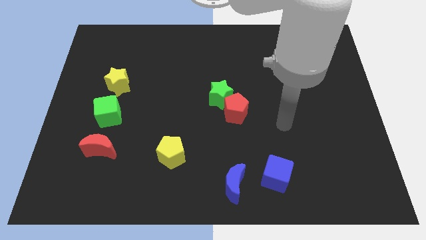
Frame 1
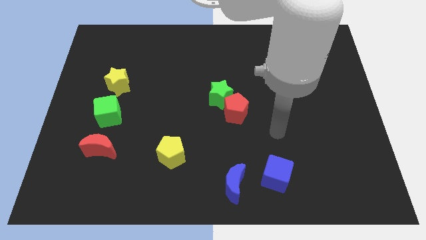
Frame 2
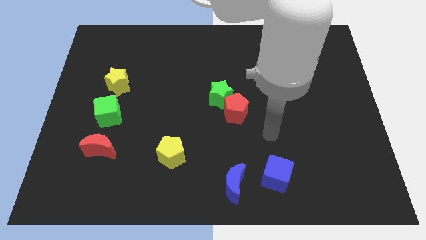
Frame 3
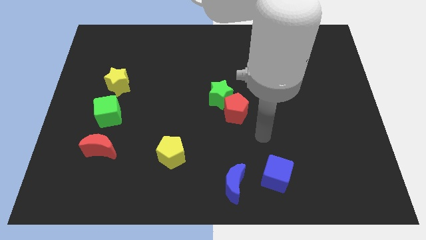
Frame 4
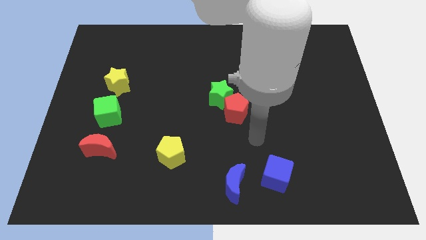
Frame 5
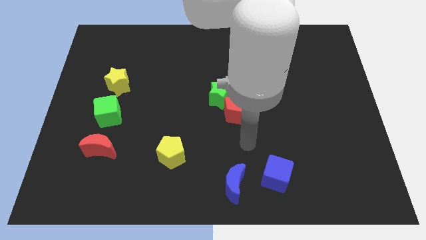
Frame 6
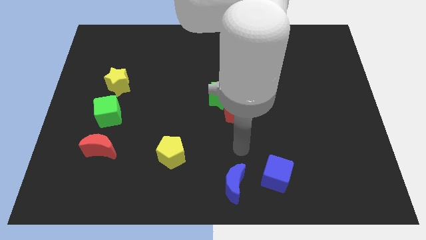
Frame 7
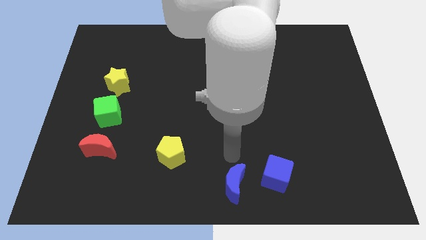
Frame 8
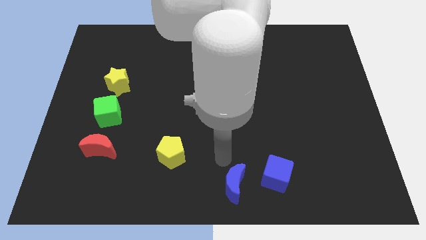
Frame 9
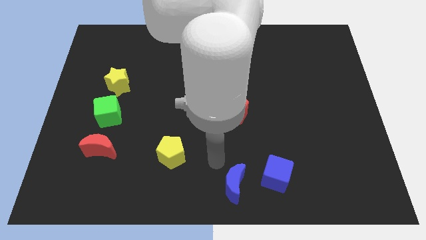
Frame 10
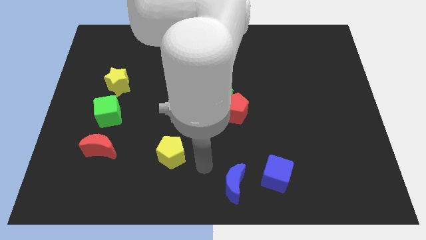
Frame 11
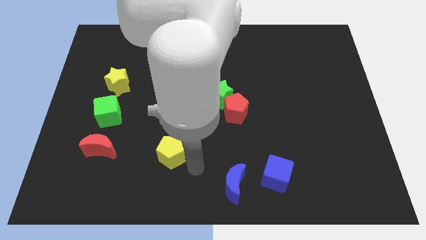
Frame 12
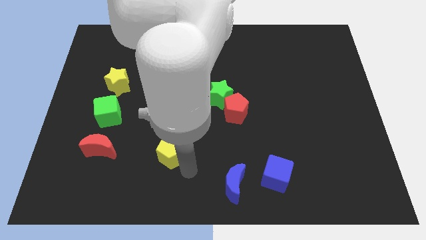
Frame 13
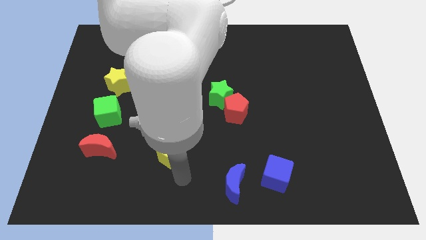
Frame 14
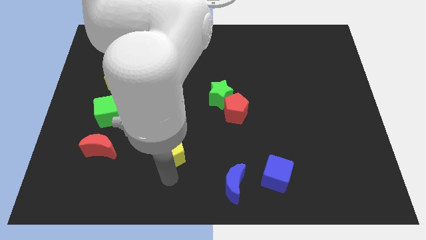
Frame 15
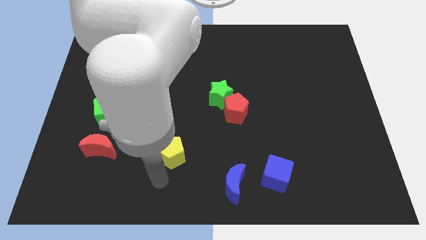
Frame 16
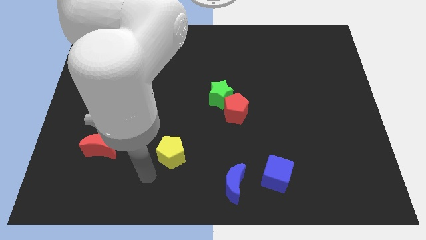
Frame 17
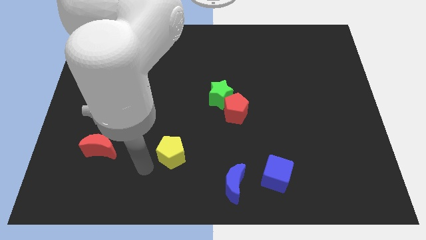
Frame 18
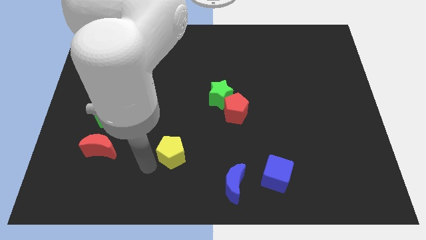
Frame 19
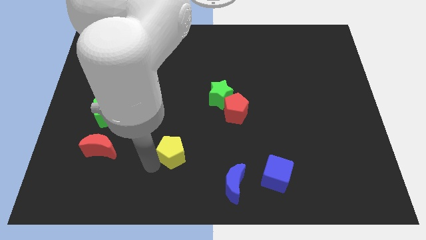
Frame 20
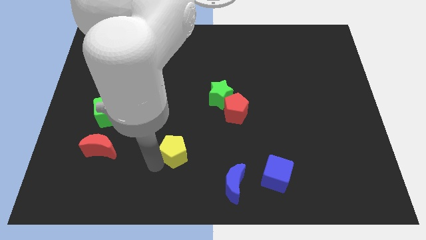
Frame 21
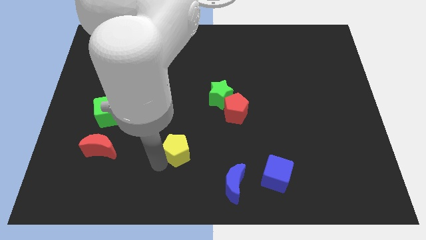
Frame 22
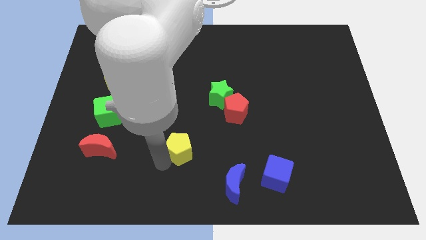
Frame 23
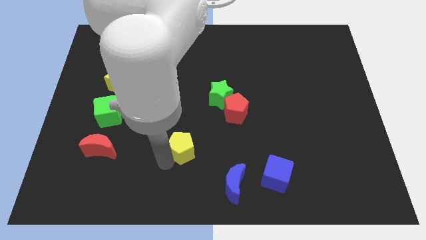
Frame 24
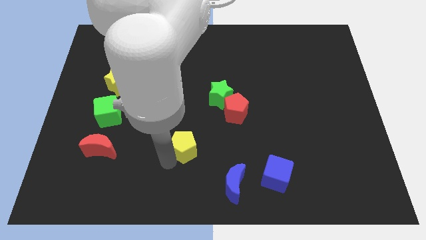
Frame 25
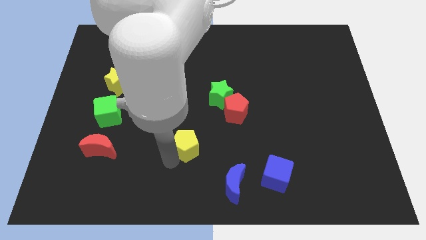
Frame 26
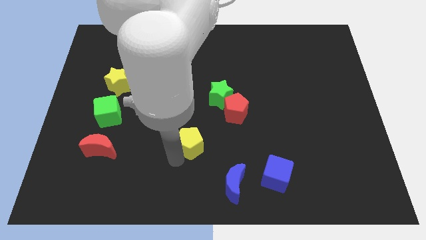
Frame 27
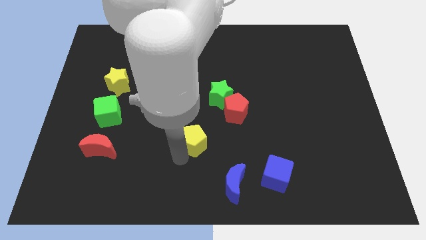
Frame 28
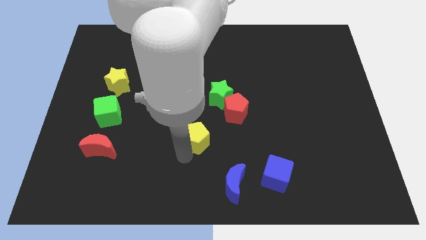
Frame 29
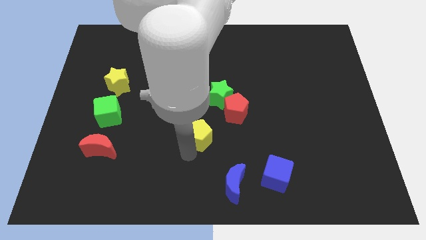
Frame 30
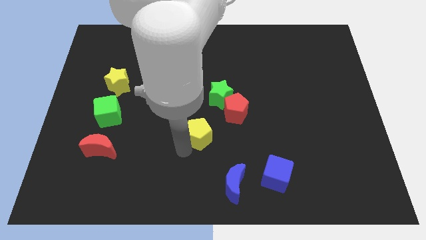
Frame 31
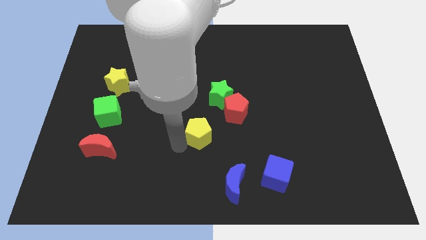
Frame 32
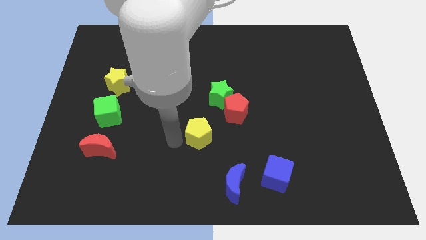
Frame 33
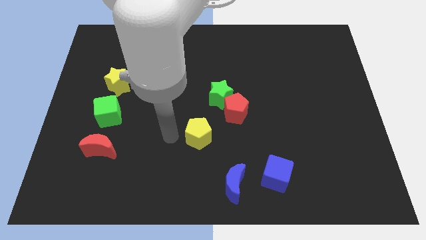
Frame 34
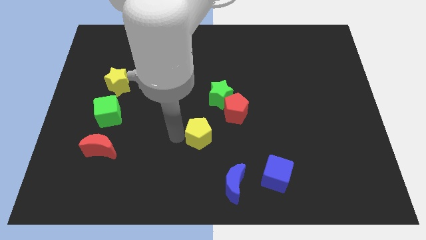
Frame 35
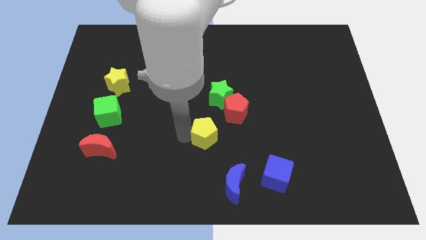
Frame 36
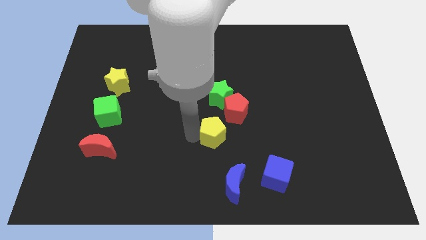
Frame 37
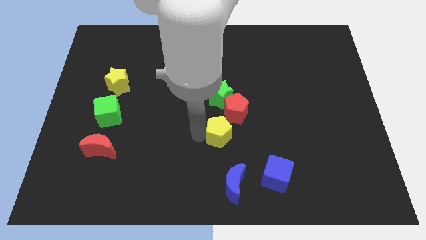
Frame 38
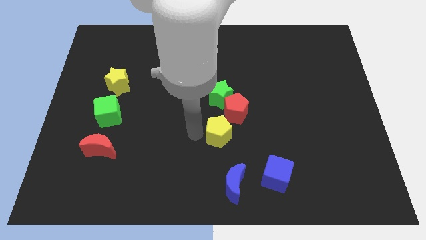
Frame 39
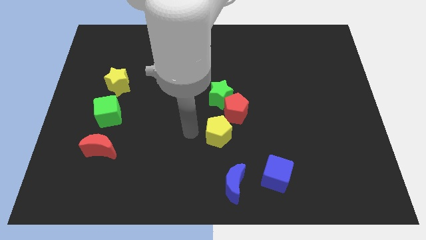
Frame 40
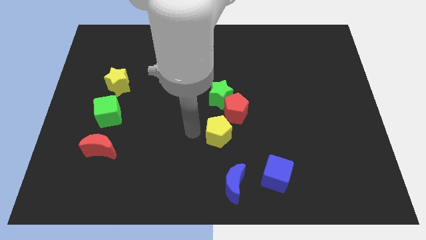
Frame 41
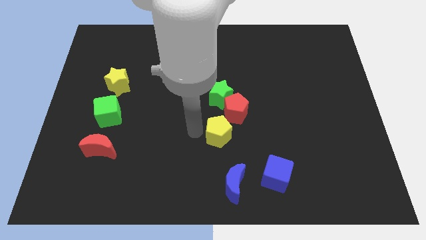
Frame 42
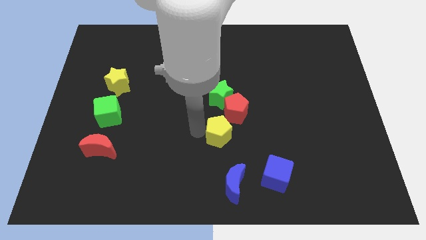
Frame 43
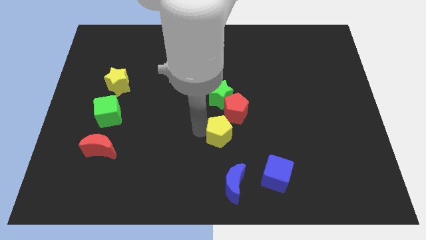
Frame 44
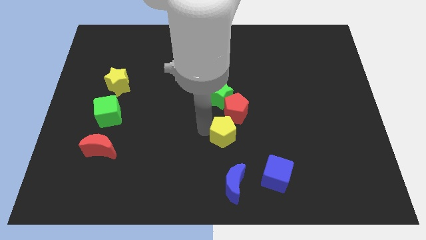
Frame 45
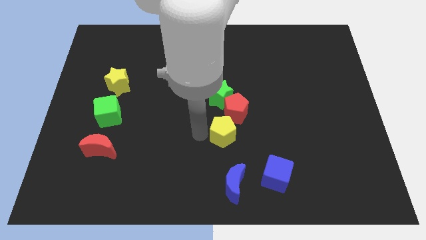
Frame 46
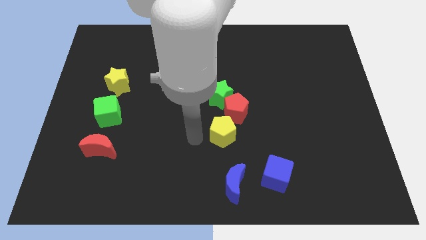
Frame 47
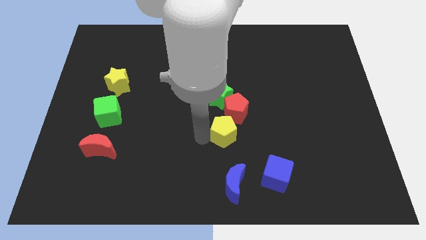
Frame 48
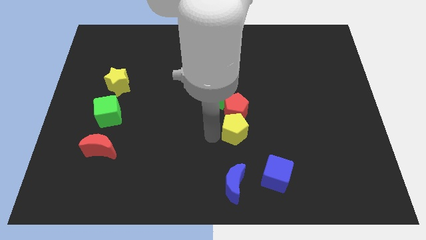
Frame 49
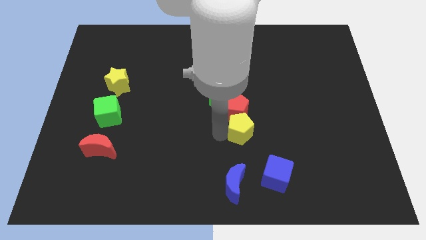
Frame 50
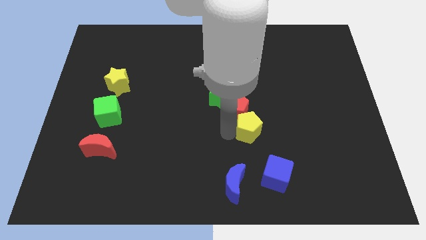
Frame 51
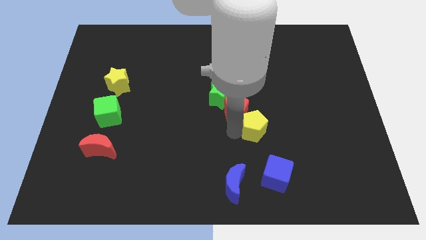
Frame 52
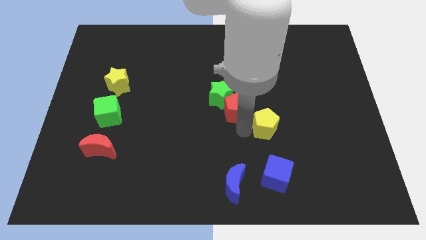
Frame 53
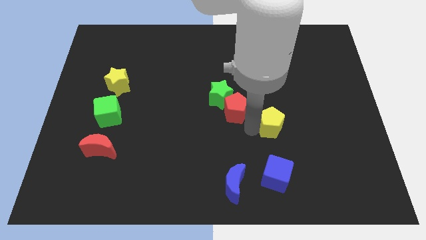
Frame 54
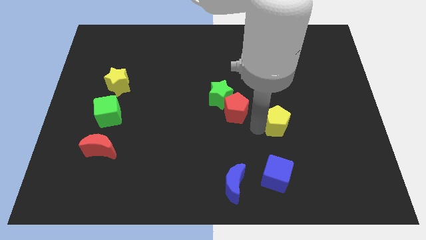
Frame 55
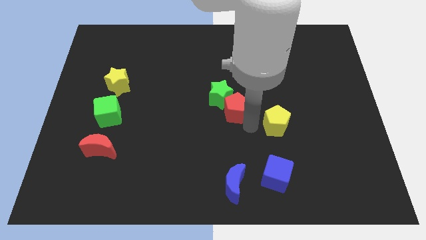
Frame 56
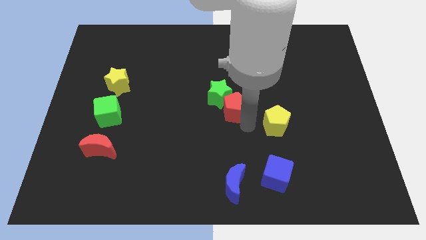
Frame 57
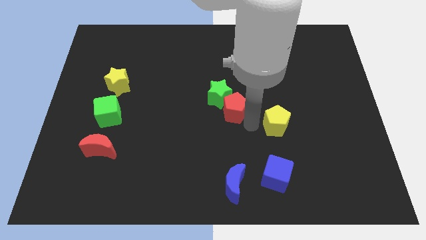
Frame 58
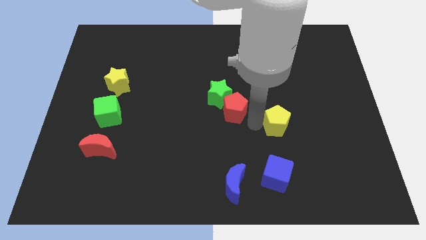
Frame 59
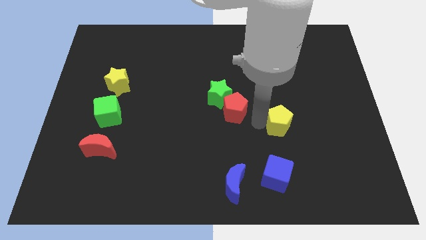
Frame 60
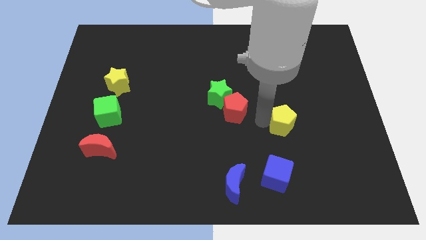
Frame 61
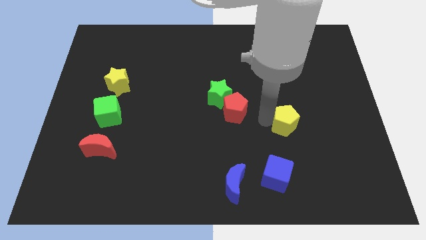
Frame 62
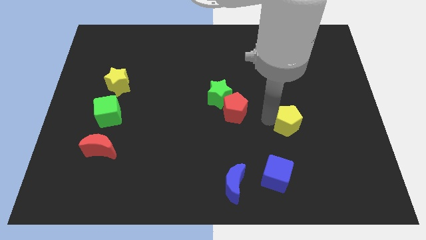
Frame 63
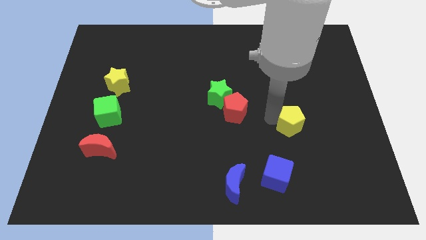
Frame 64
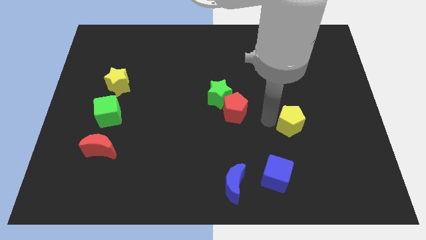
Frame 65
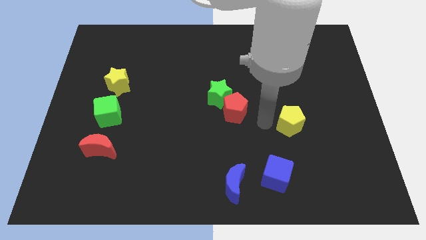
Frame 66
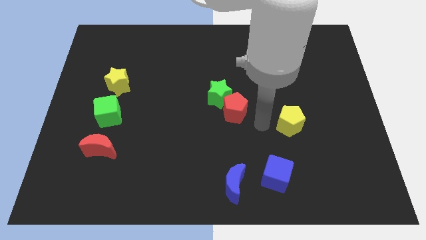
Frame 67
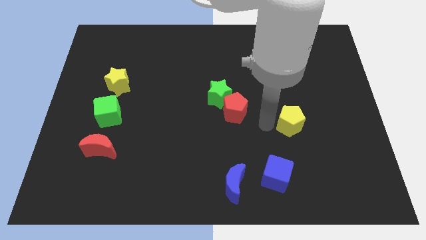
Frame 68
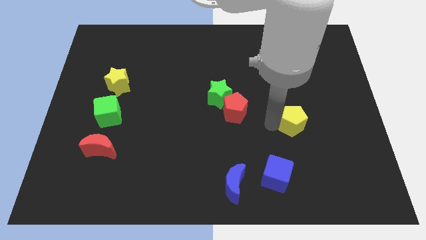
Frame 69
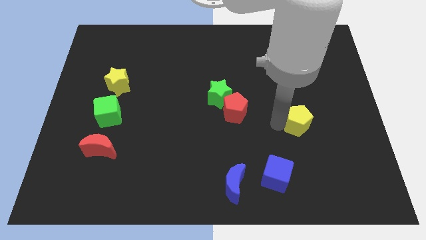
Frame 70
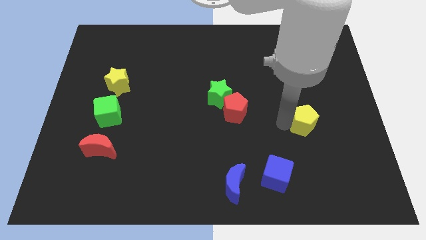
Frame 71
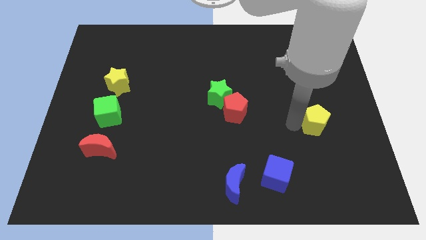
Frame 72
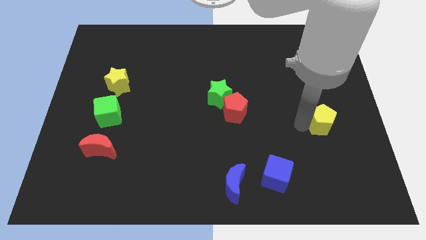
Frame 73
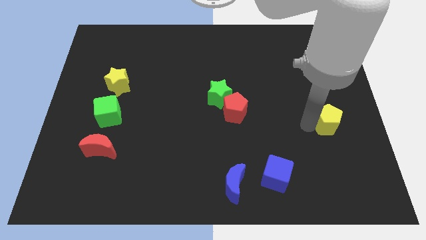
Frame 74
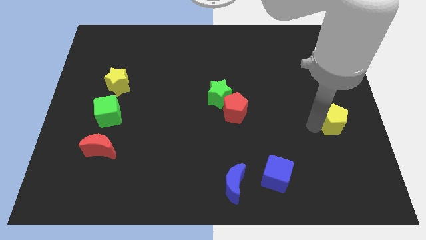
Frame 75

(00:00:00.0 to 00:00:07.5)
move the yellow pentagon to the right side
